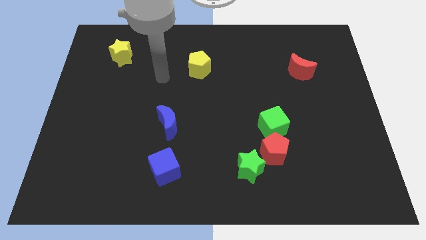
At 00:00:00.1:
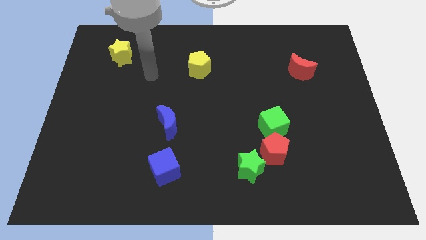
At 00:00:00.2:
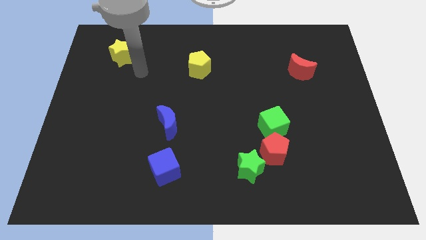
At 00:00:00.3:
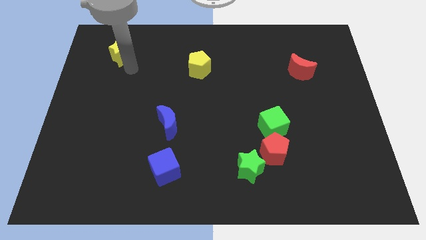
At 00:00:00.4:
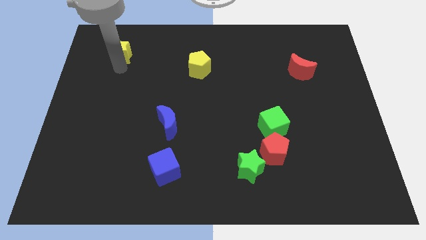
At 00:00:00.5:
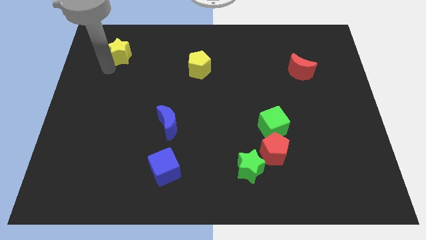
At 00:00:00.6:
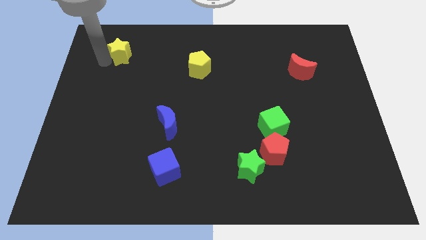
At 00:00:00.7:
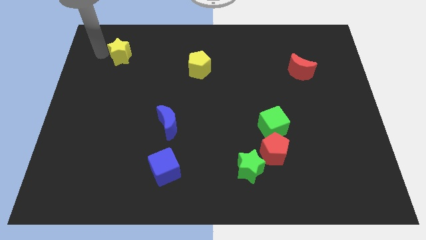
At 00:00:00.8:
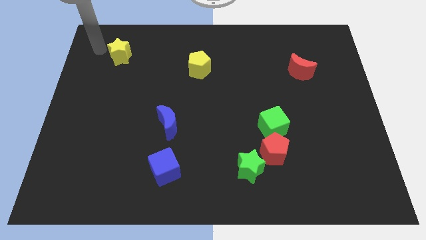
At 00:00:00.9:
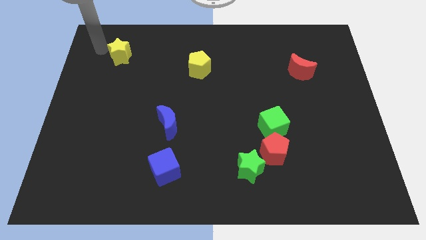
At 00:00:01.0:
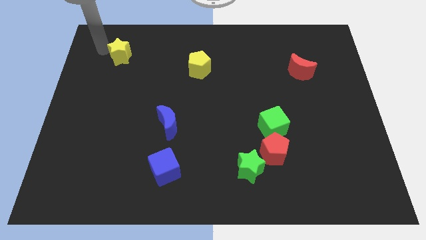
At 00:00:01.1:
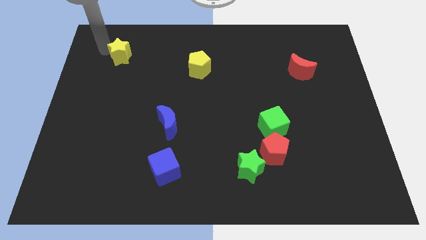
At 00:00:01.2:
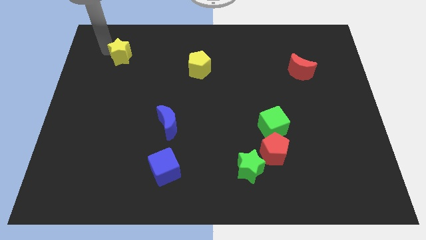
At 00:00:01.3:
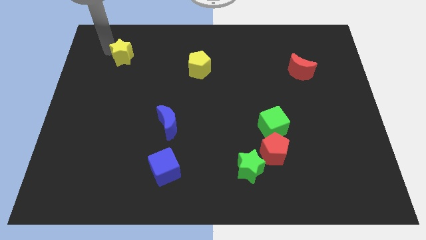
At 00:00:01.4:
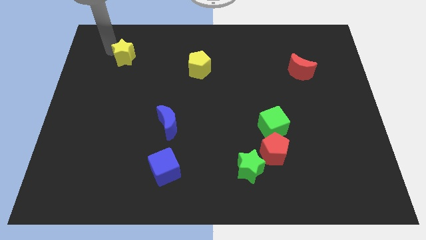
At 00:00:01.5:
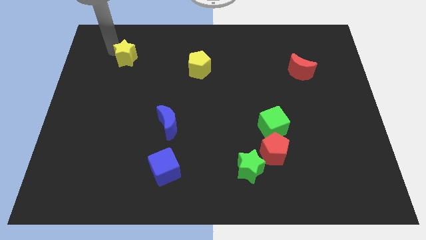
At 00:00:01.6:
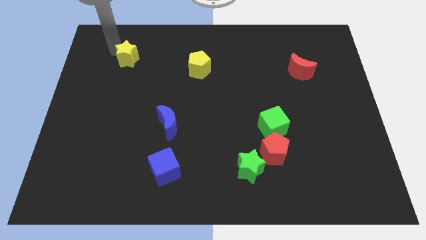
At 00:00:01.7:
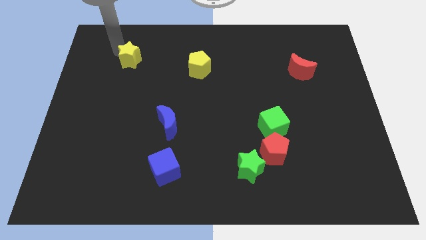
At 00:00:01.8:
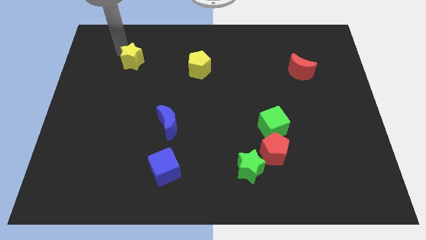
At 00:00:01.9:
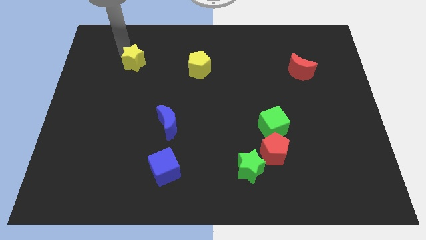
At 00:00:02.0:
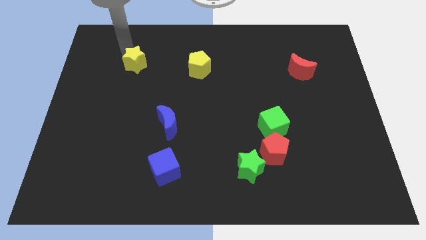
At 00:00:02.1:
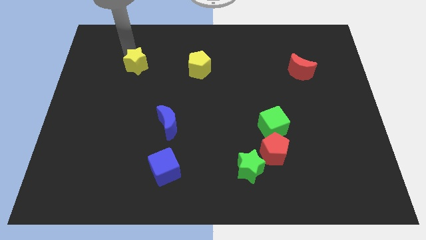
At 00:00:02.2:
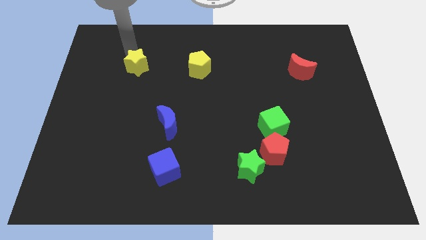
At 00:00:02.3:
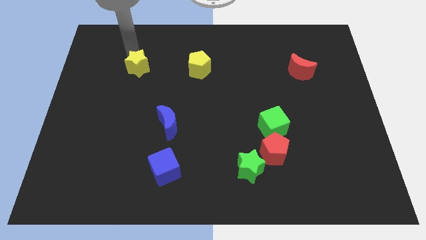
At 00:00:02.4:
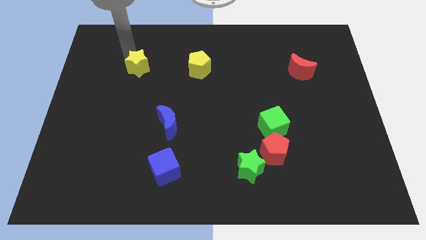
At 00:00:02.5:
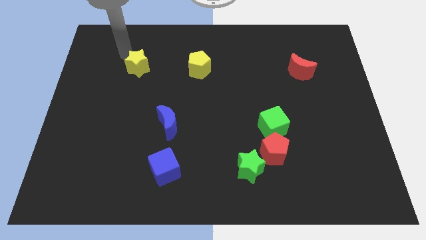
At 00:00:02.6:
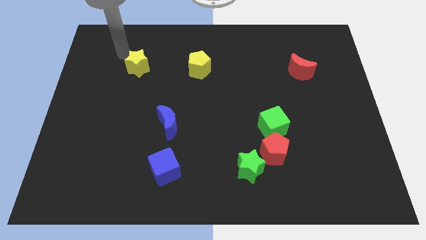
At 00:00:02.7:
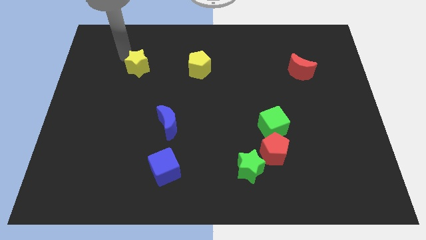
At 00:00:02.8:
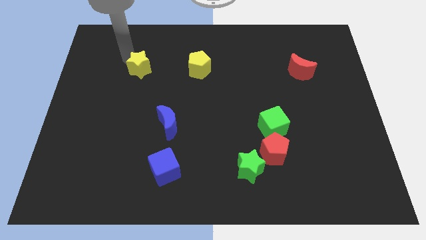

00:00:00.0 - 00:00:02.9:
push the yellow star downwards and then right a little bit

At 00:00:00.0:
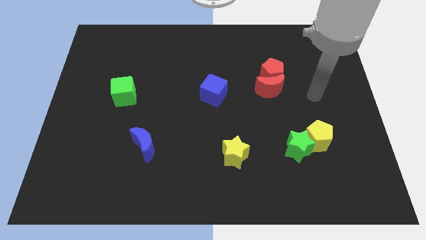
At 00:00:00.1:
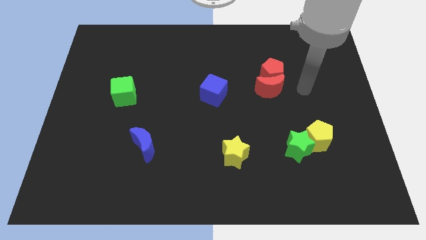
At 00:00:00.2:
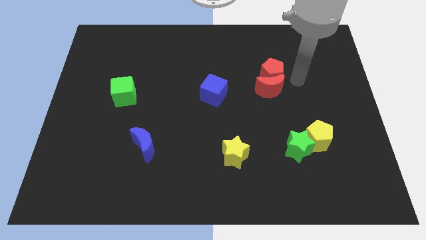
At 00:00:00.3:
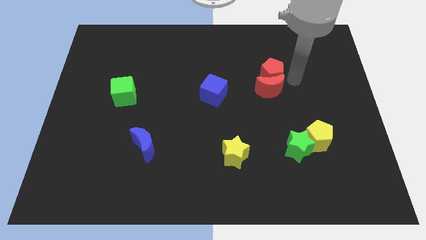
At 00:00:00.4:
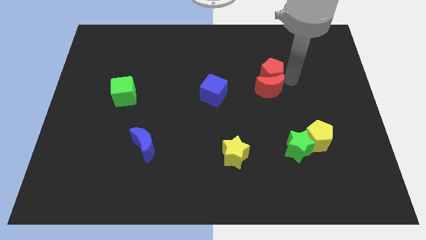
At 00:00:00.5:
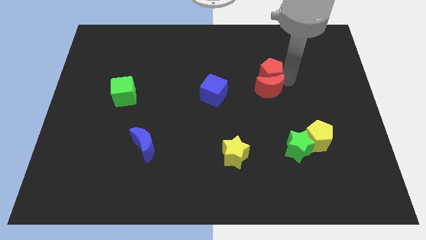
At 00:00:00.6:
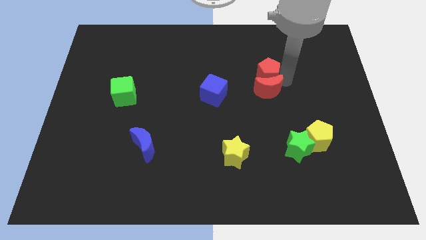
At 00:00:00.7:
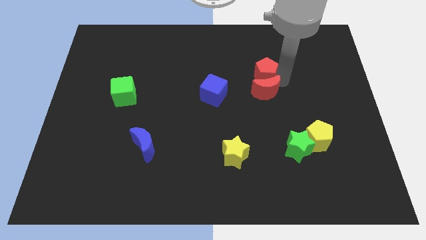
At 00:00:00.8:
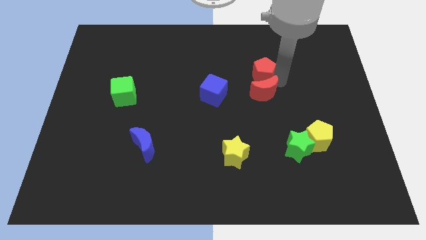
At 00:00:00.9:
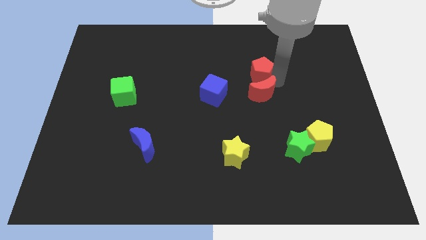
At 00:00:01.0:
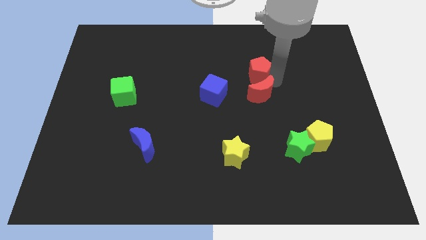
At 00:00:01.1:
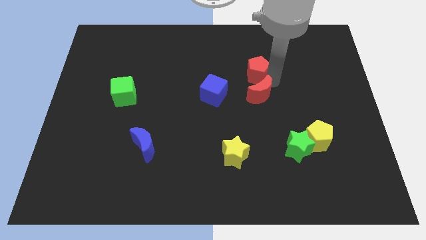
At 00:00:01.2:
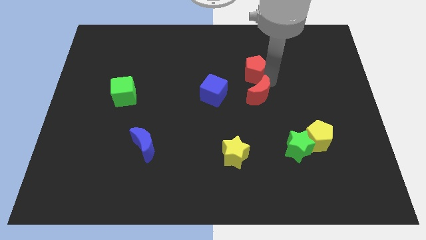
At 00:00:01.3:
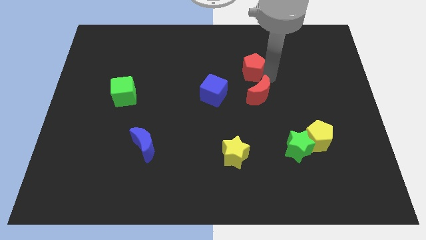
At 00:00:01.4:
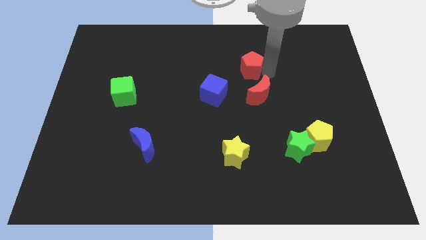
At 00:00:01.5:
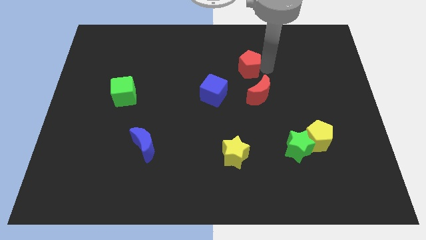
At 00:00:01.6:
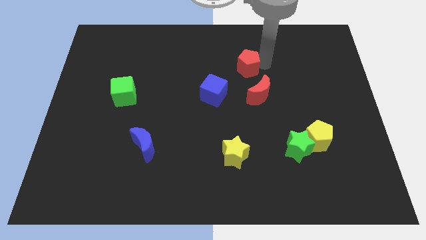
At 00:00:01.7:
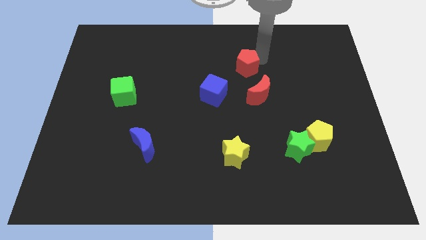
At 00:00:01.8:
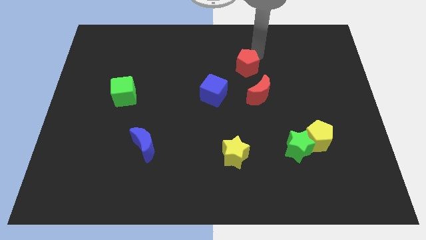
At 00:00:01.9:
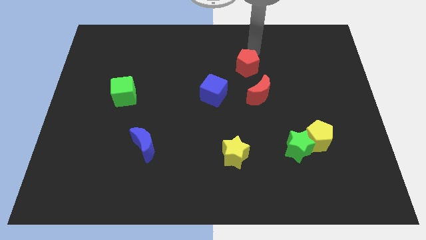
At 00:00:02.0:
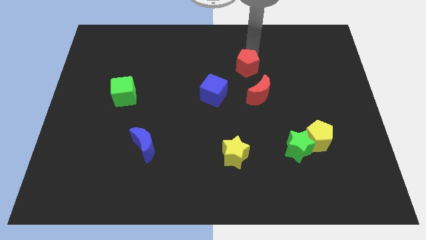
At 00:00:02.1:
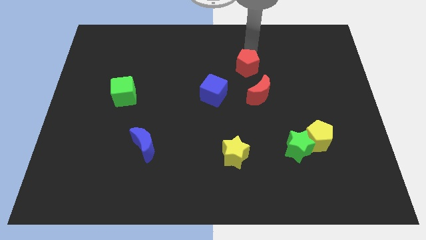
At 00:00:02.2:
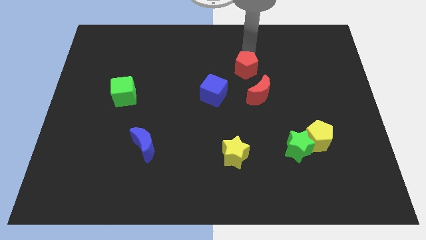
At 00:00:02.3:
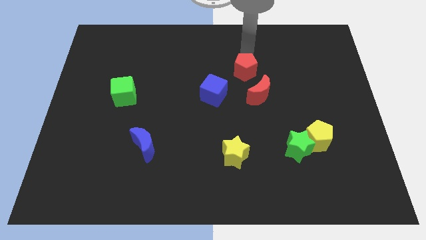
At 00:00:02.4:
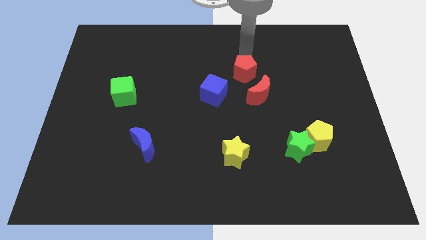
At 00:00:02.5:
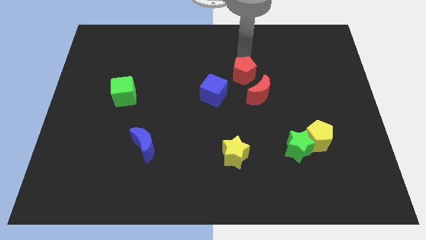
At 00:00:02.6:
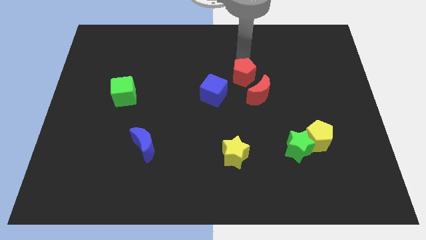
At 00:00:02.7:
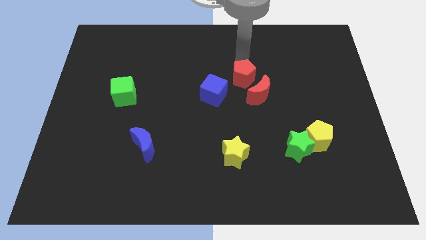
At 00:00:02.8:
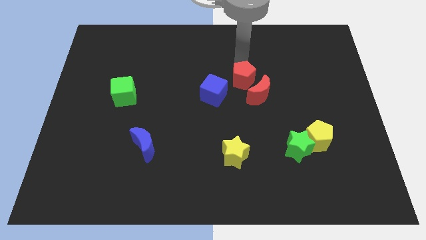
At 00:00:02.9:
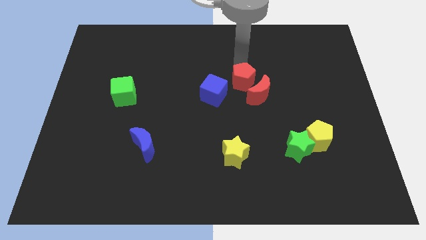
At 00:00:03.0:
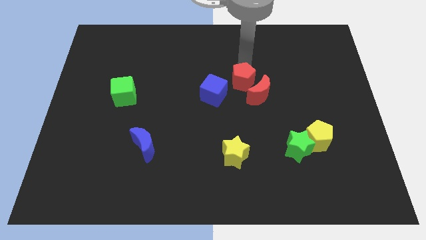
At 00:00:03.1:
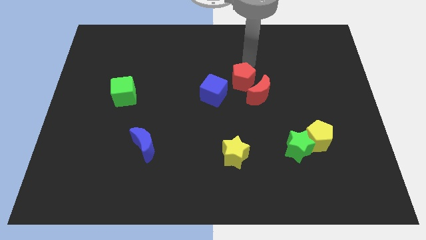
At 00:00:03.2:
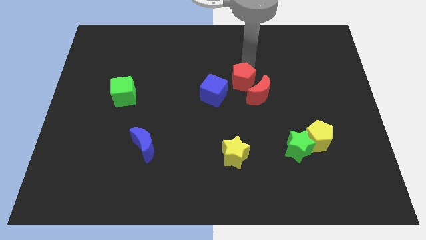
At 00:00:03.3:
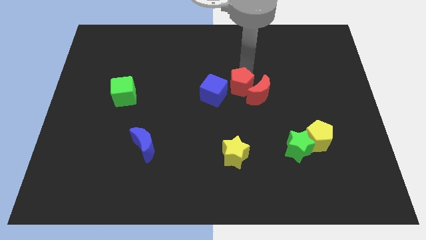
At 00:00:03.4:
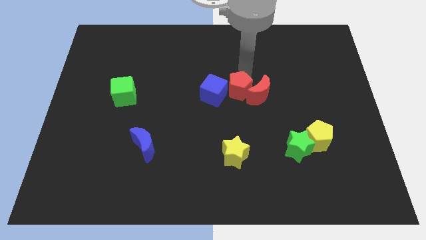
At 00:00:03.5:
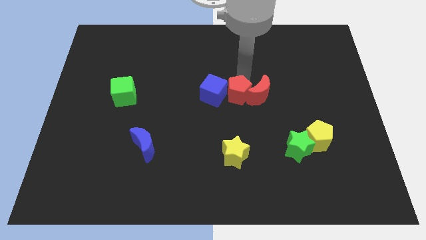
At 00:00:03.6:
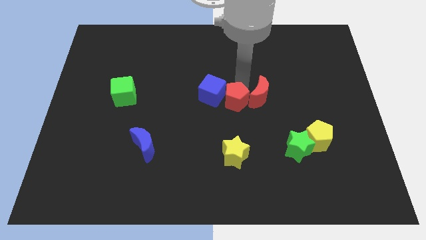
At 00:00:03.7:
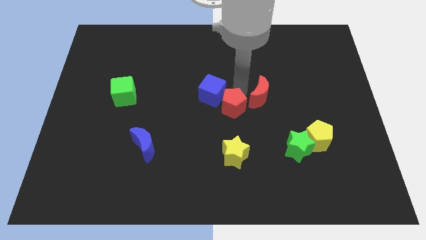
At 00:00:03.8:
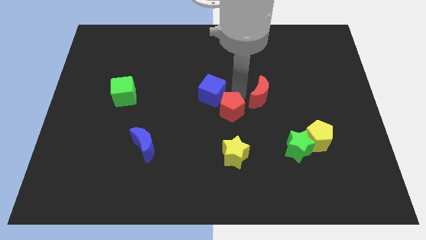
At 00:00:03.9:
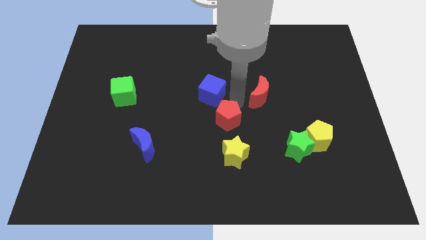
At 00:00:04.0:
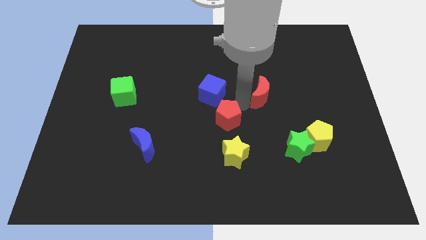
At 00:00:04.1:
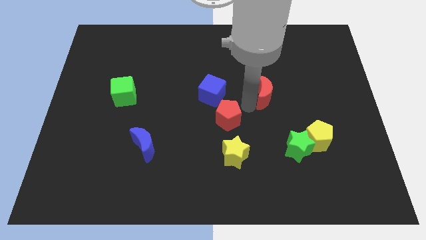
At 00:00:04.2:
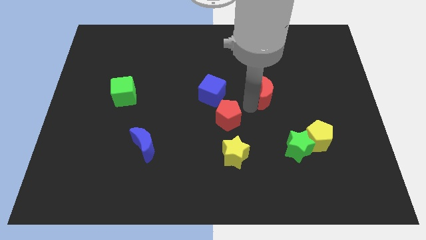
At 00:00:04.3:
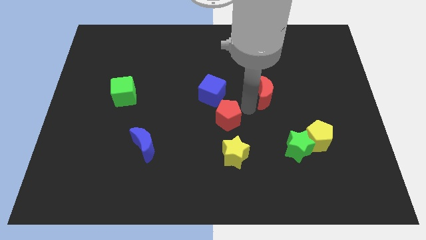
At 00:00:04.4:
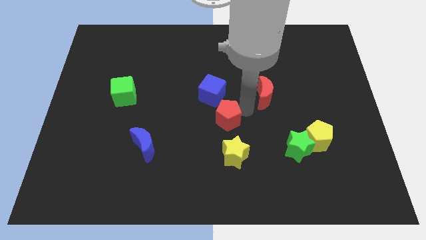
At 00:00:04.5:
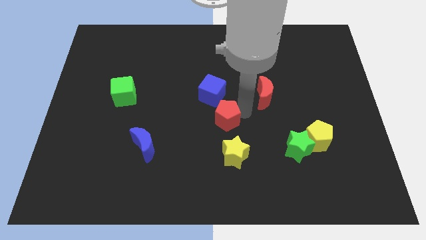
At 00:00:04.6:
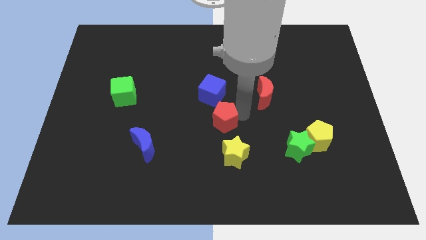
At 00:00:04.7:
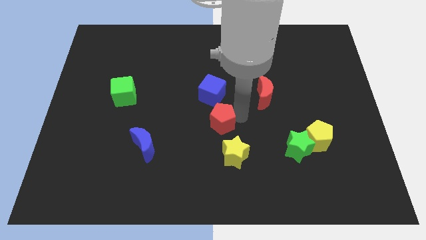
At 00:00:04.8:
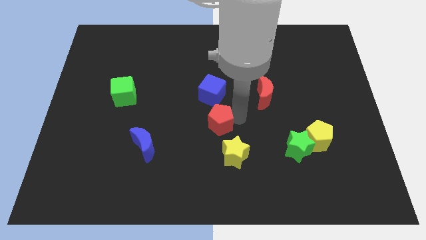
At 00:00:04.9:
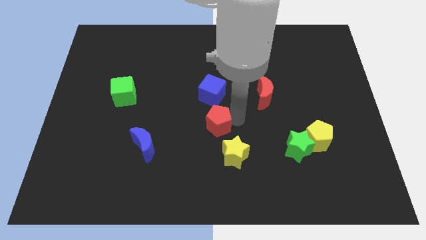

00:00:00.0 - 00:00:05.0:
push the red pentagon down and left diagonally
